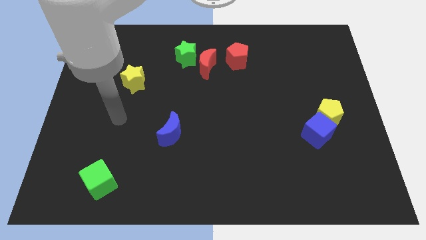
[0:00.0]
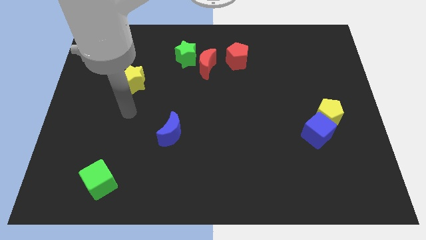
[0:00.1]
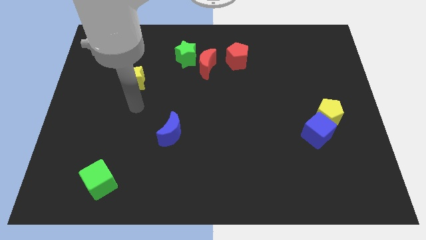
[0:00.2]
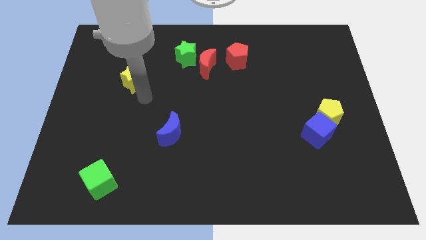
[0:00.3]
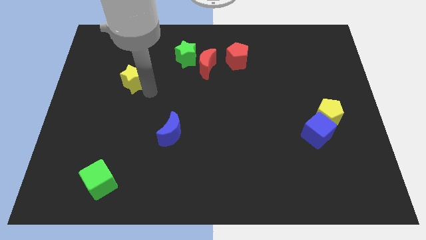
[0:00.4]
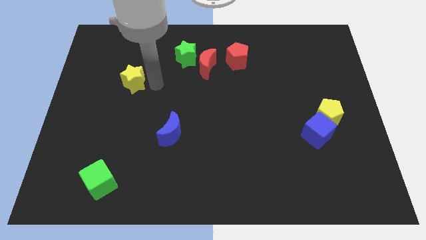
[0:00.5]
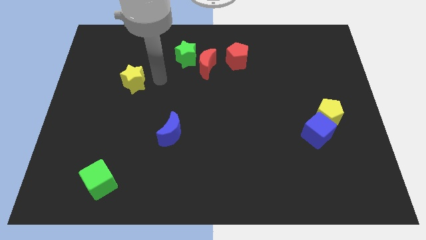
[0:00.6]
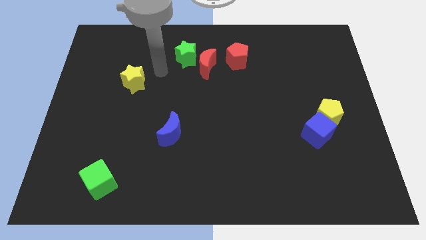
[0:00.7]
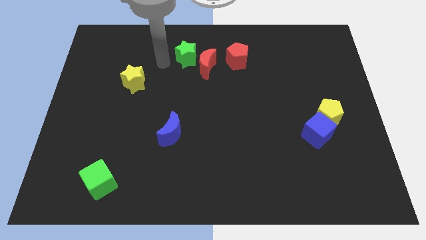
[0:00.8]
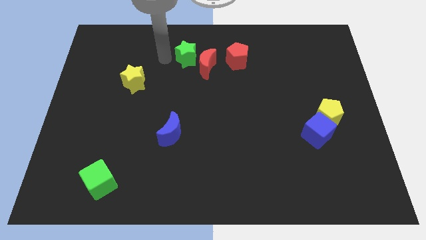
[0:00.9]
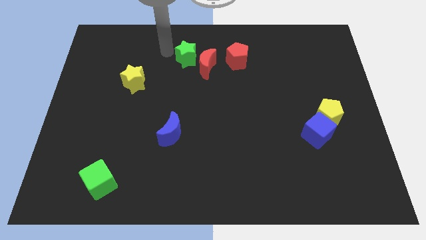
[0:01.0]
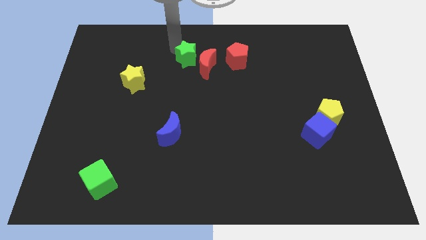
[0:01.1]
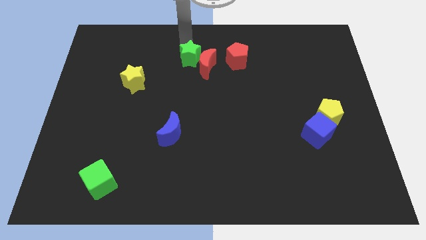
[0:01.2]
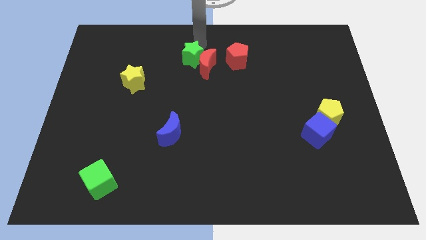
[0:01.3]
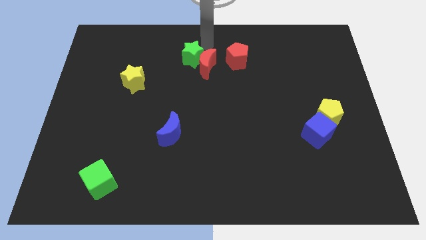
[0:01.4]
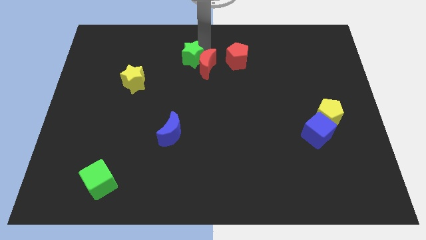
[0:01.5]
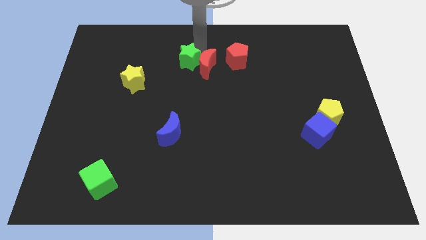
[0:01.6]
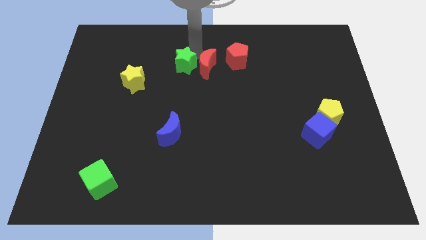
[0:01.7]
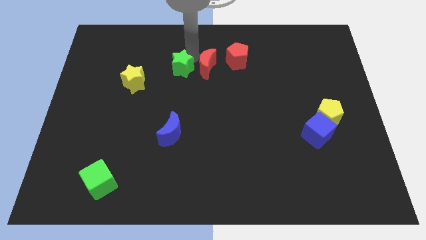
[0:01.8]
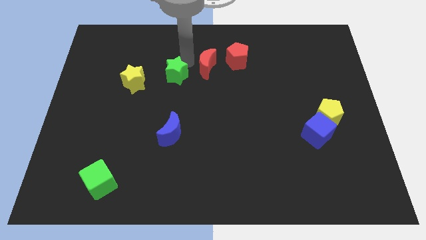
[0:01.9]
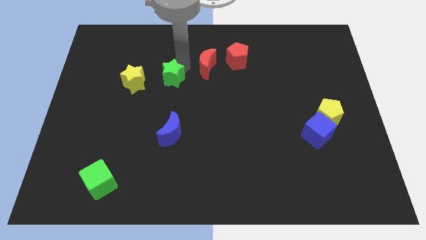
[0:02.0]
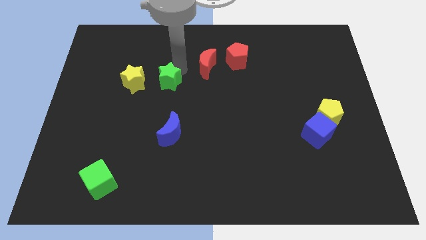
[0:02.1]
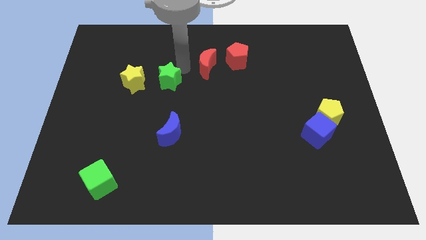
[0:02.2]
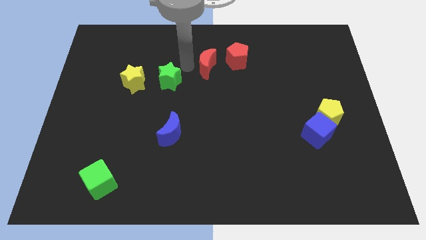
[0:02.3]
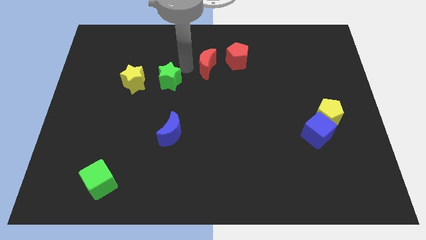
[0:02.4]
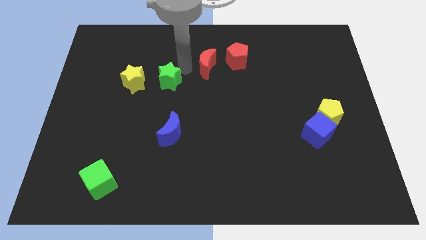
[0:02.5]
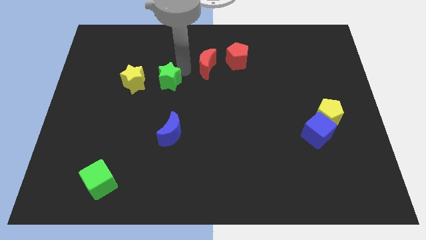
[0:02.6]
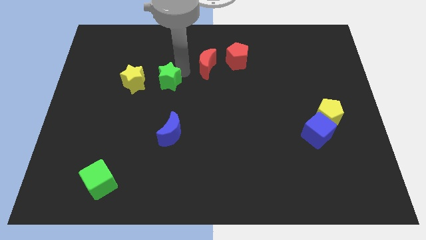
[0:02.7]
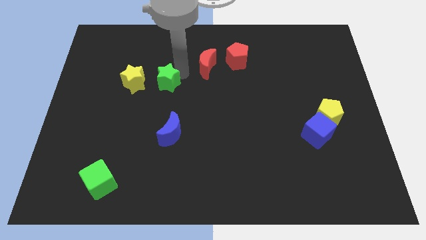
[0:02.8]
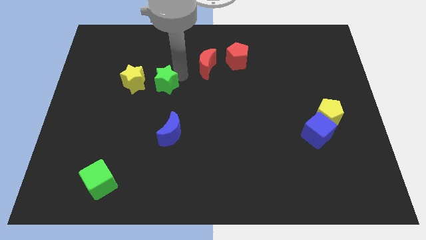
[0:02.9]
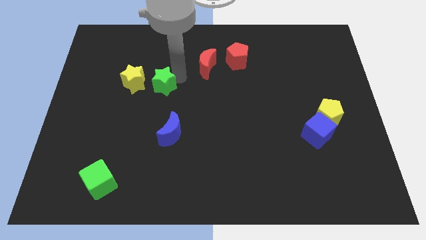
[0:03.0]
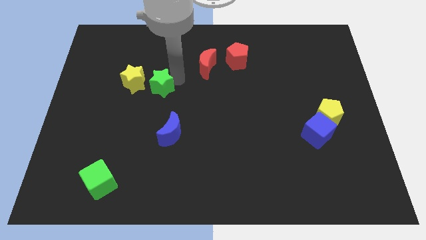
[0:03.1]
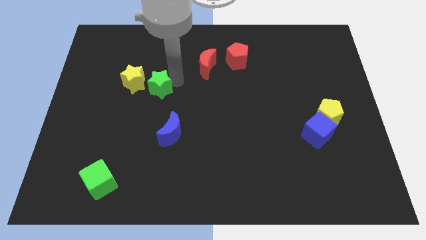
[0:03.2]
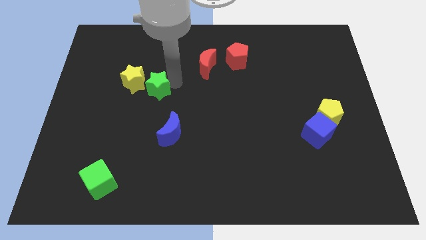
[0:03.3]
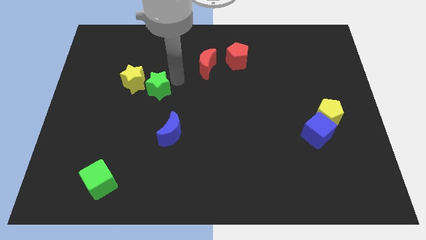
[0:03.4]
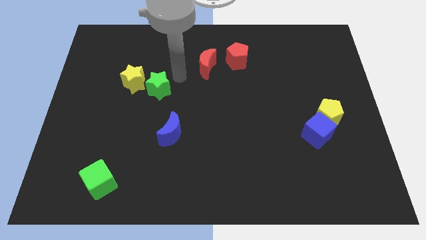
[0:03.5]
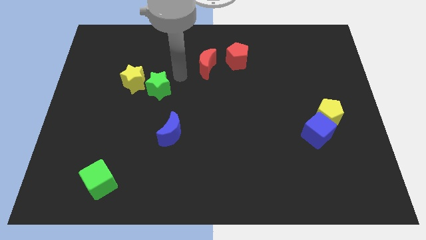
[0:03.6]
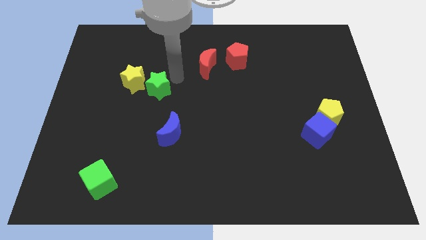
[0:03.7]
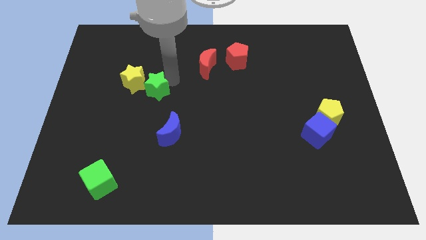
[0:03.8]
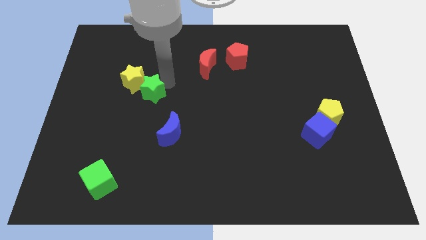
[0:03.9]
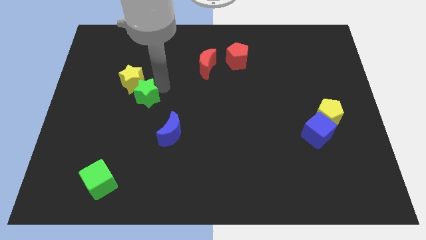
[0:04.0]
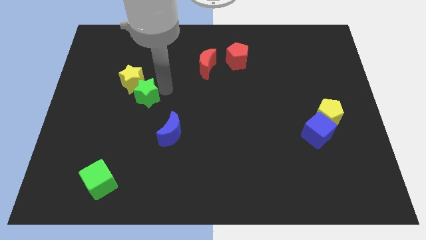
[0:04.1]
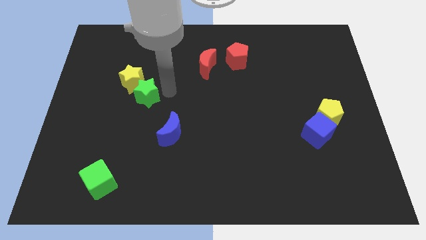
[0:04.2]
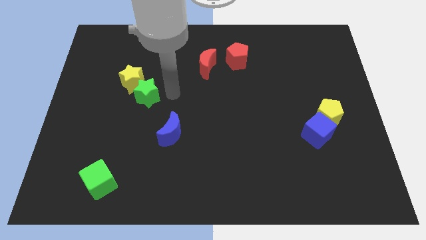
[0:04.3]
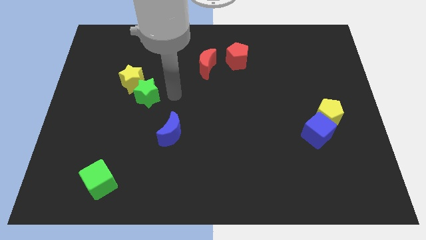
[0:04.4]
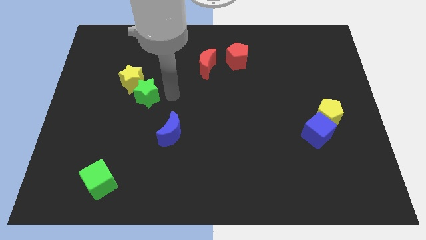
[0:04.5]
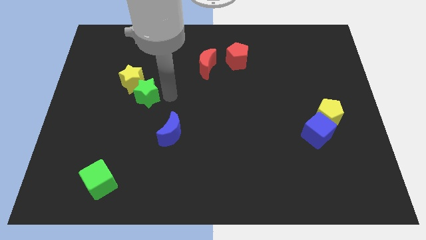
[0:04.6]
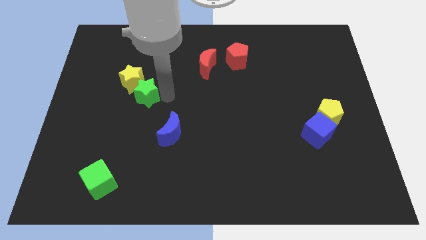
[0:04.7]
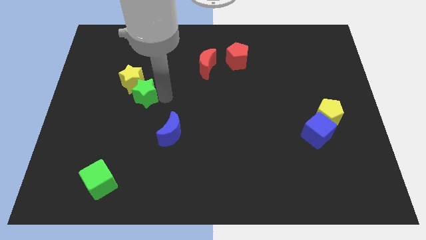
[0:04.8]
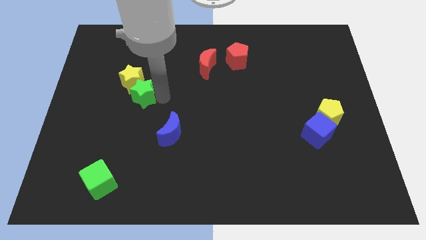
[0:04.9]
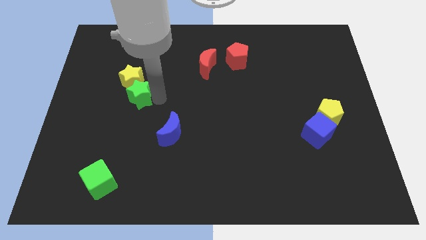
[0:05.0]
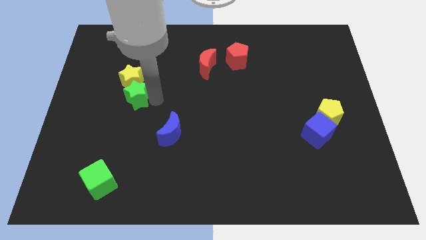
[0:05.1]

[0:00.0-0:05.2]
push the green star to the bottom left side of the yellow star

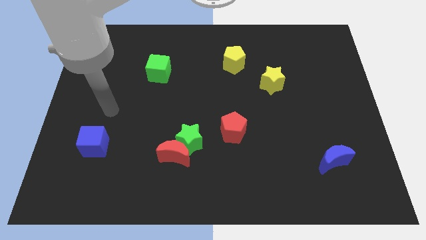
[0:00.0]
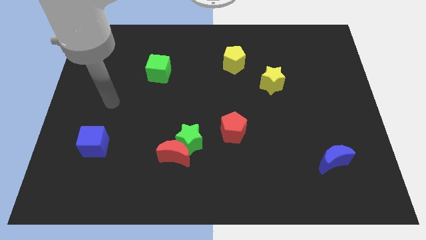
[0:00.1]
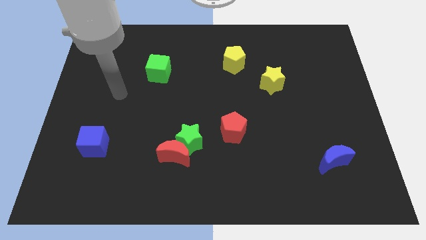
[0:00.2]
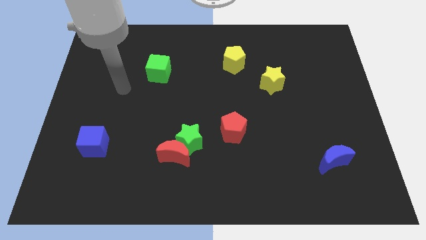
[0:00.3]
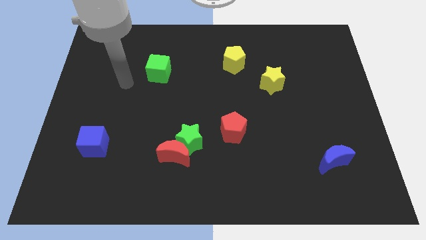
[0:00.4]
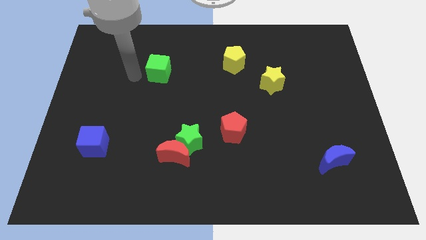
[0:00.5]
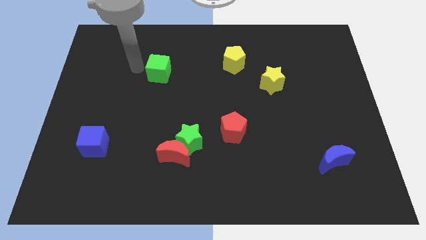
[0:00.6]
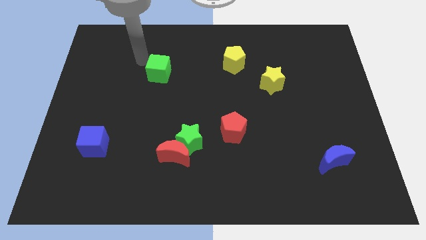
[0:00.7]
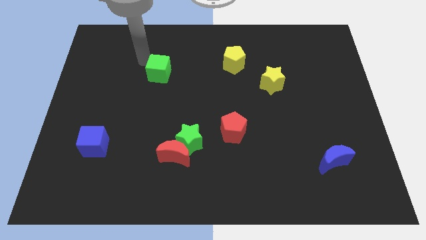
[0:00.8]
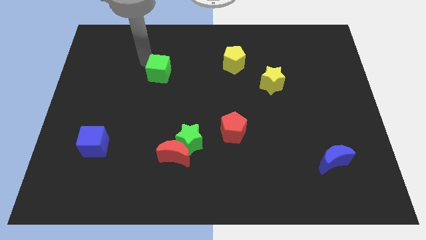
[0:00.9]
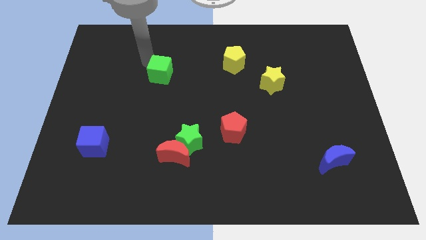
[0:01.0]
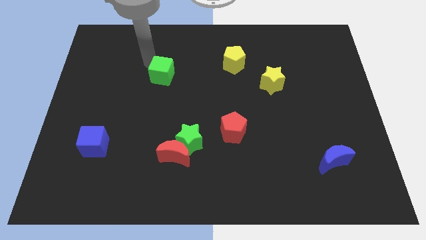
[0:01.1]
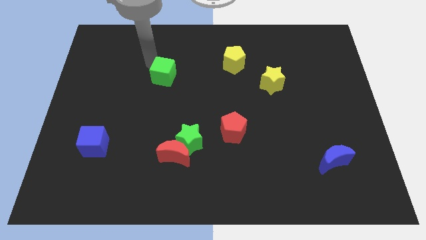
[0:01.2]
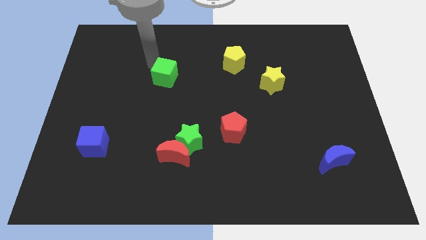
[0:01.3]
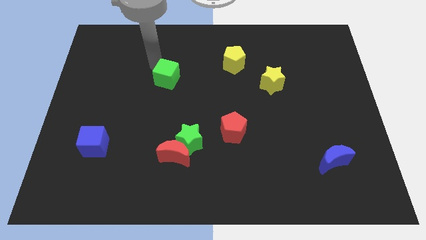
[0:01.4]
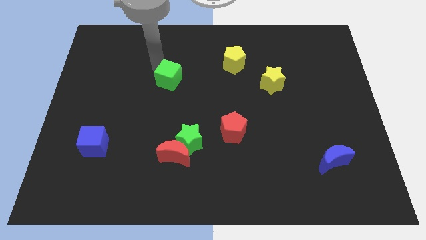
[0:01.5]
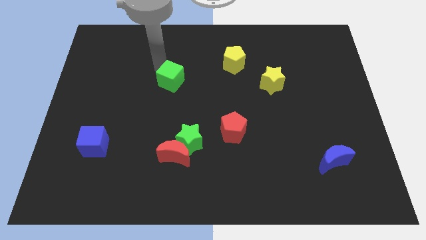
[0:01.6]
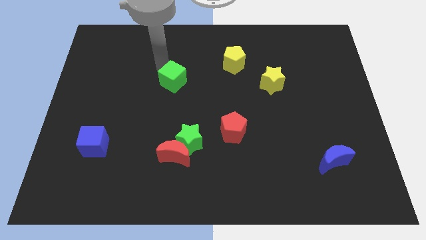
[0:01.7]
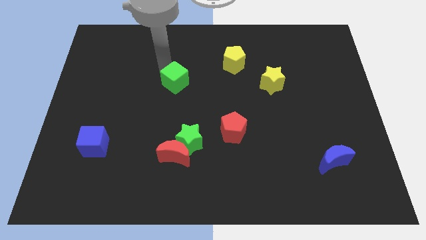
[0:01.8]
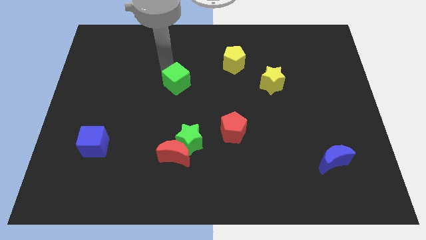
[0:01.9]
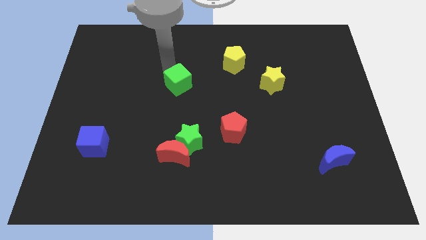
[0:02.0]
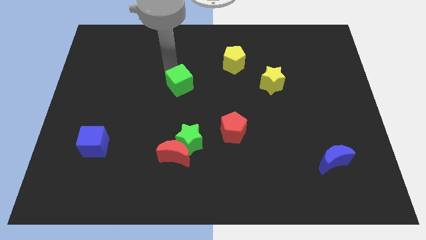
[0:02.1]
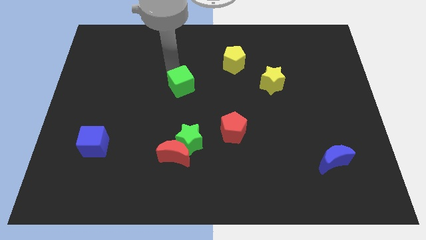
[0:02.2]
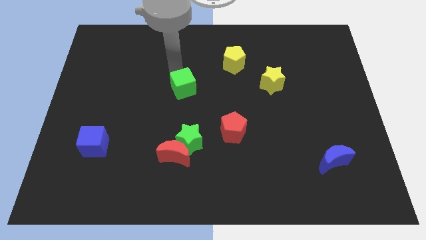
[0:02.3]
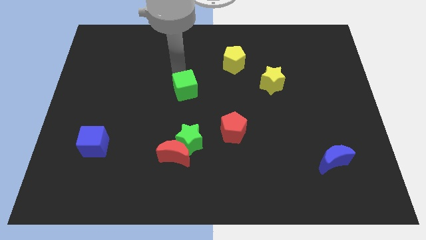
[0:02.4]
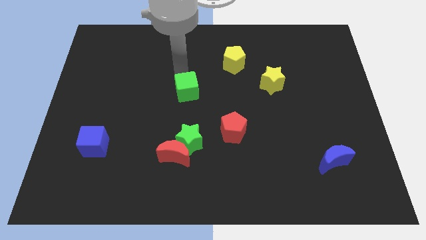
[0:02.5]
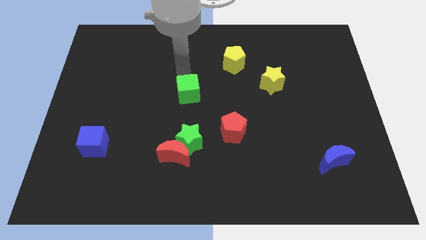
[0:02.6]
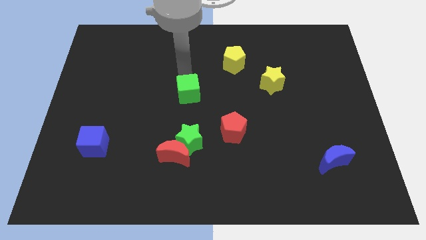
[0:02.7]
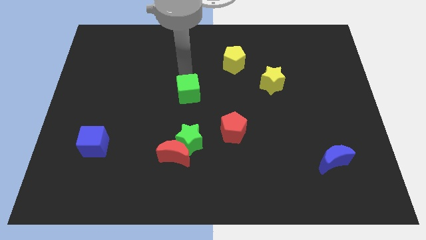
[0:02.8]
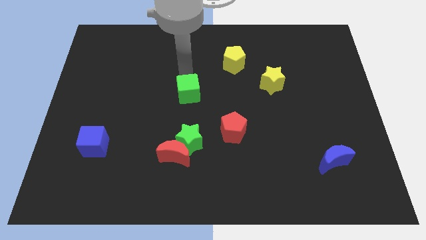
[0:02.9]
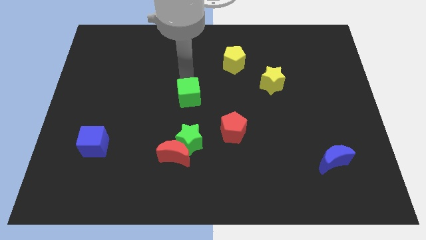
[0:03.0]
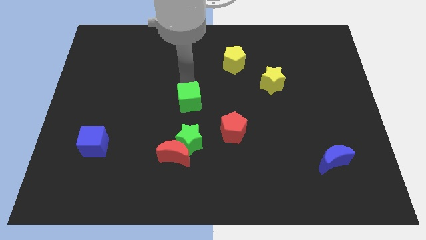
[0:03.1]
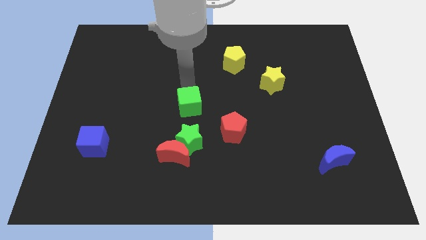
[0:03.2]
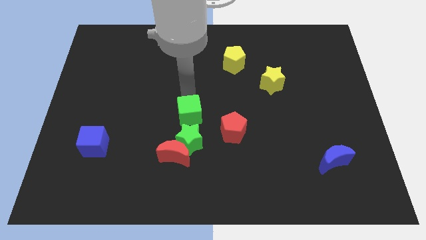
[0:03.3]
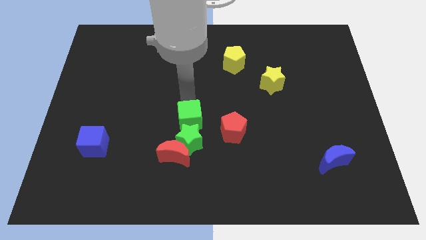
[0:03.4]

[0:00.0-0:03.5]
push the green cube to the top right of the red moon
